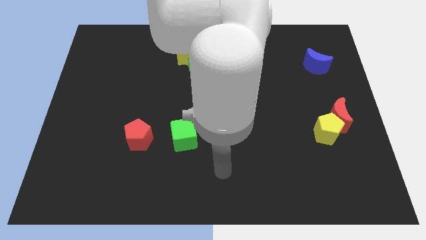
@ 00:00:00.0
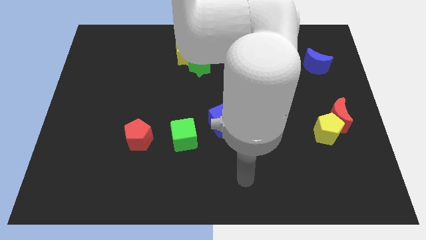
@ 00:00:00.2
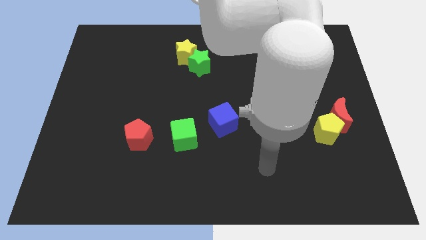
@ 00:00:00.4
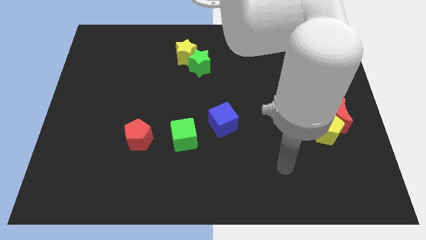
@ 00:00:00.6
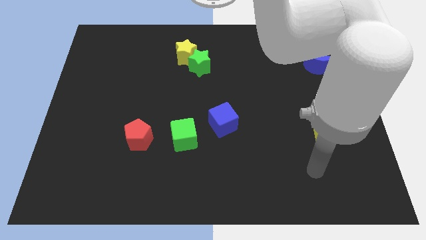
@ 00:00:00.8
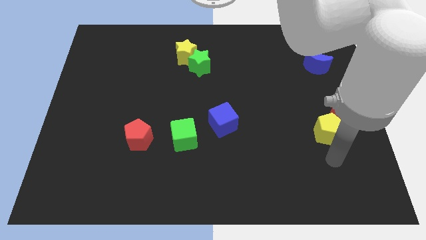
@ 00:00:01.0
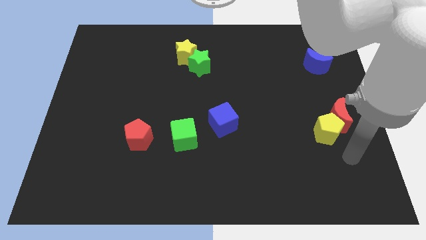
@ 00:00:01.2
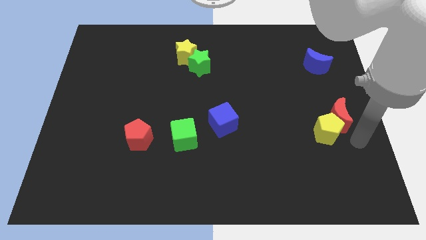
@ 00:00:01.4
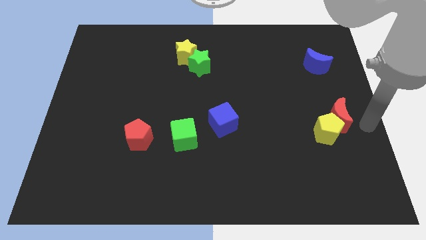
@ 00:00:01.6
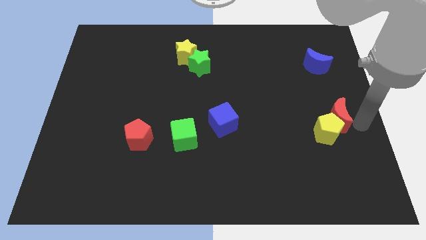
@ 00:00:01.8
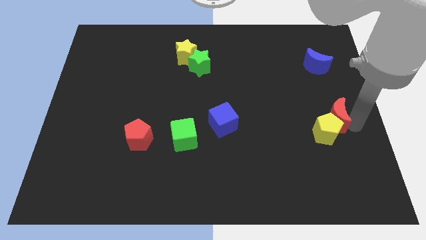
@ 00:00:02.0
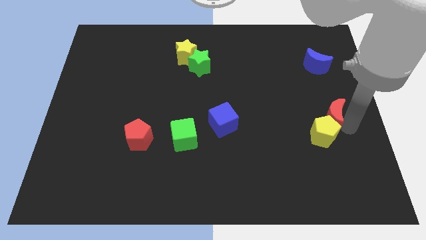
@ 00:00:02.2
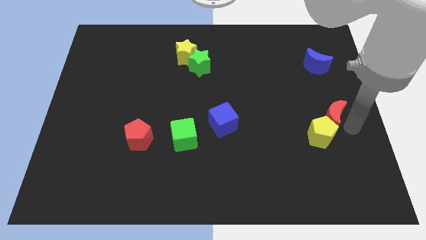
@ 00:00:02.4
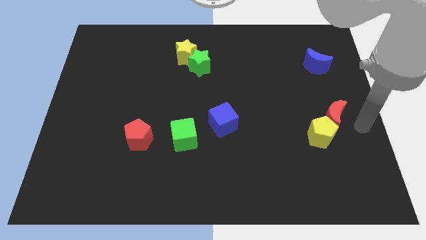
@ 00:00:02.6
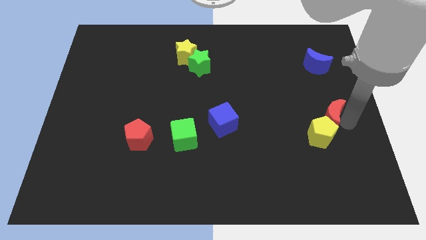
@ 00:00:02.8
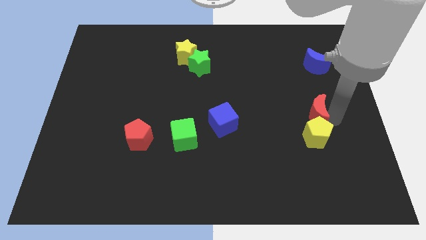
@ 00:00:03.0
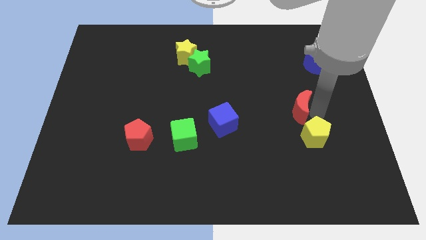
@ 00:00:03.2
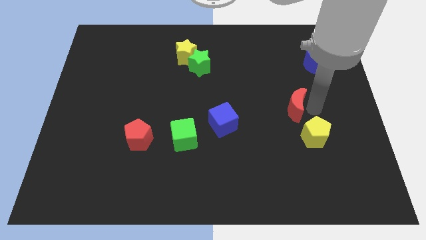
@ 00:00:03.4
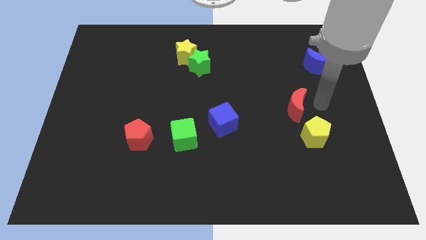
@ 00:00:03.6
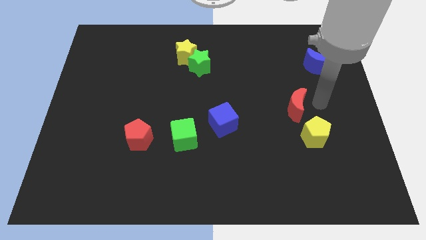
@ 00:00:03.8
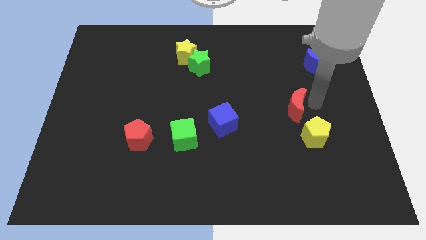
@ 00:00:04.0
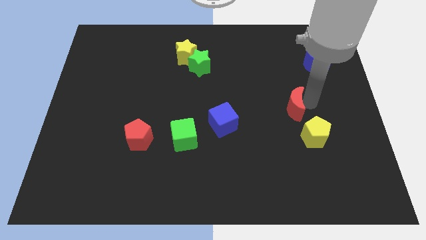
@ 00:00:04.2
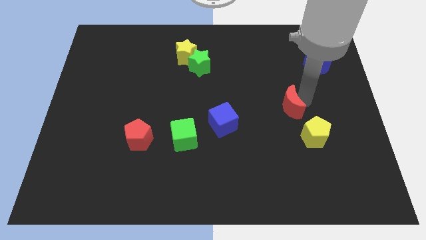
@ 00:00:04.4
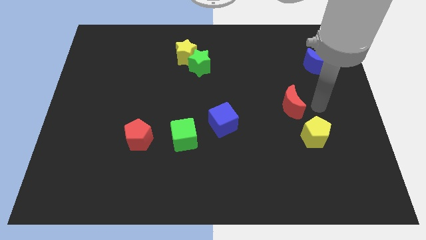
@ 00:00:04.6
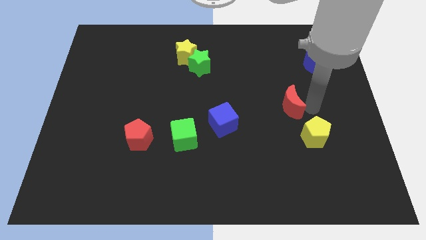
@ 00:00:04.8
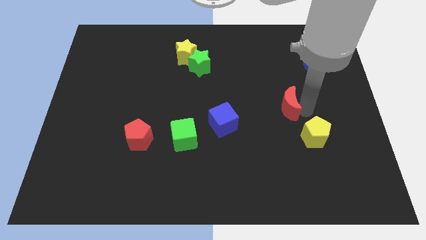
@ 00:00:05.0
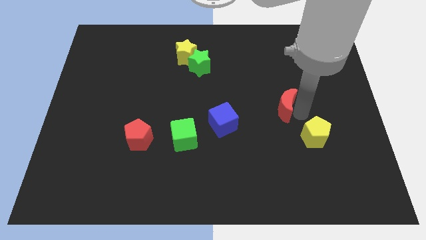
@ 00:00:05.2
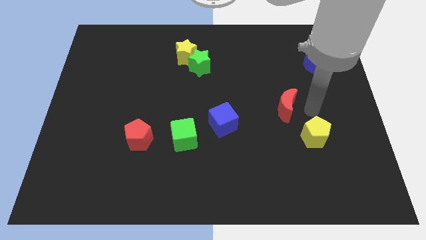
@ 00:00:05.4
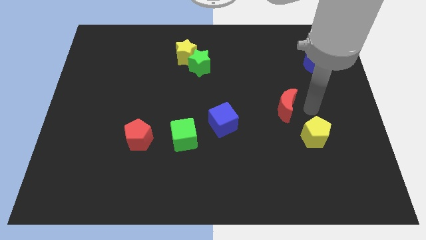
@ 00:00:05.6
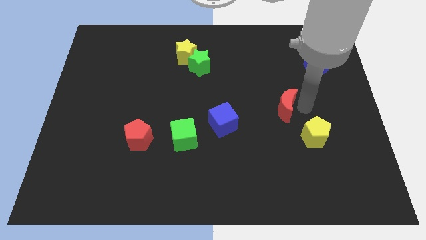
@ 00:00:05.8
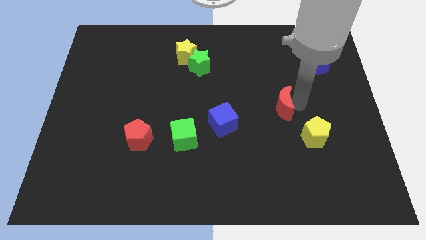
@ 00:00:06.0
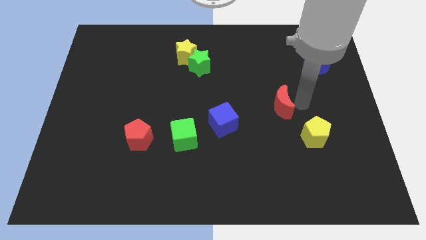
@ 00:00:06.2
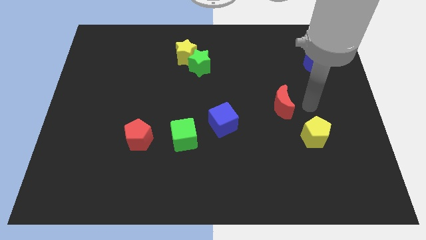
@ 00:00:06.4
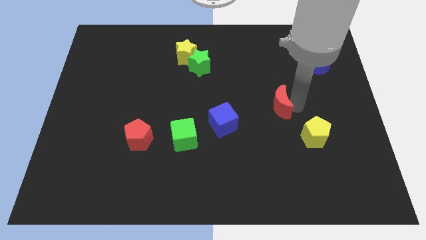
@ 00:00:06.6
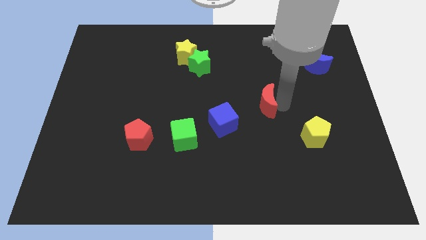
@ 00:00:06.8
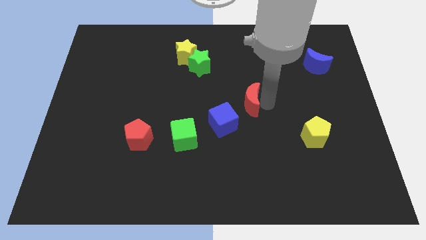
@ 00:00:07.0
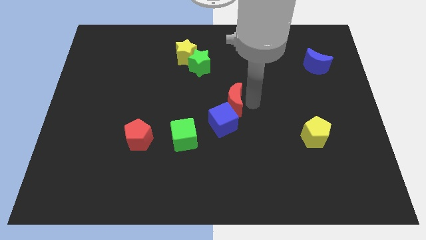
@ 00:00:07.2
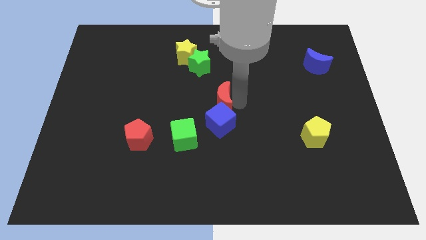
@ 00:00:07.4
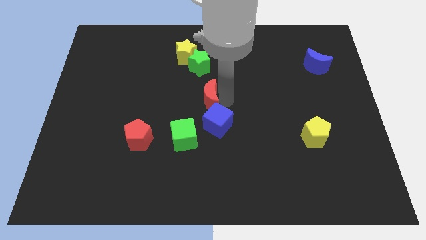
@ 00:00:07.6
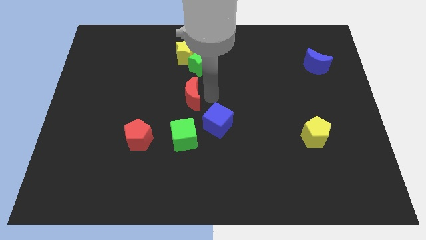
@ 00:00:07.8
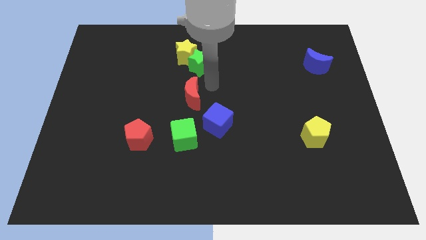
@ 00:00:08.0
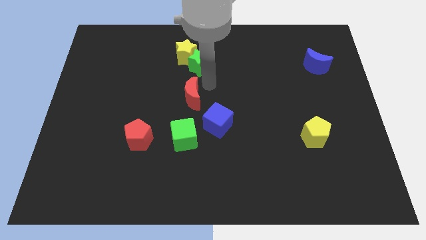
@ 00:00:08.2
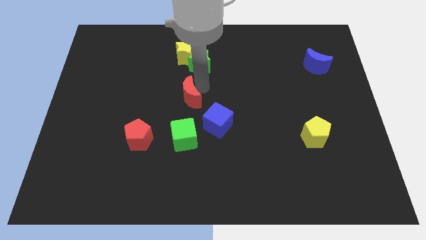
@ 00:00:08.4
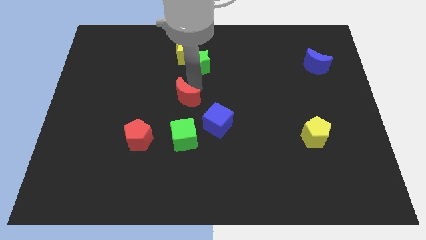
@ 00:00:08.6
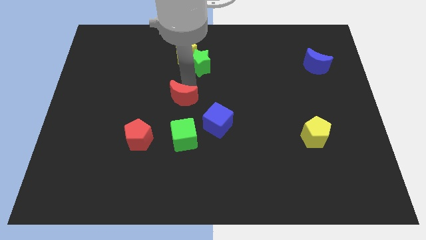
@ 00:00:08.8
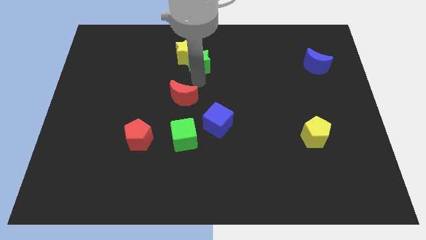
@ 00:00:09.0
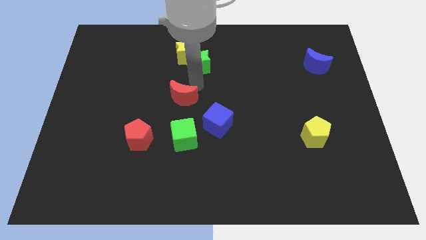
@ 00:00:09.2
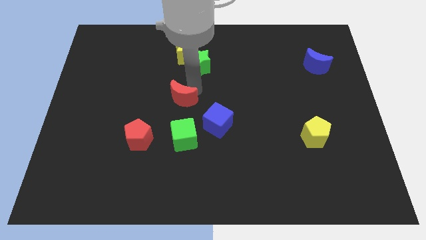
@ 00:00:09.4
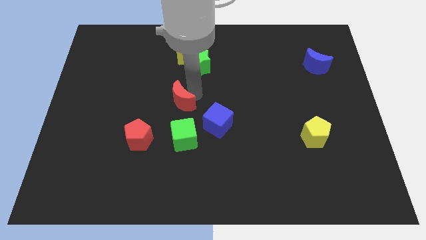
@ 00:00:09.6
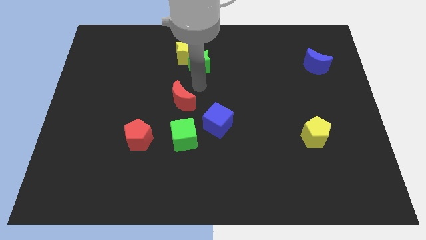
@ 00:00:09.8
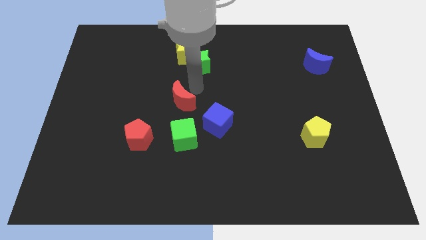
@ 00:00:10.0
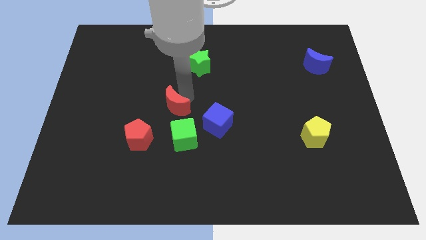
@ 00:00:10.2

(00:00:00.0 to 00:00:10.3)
push the red moon diagonally up and to the left of the green cube

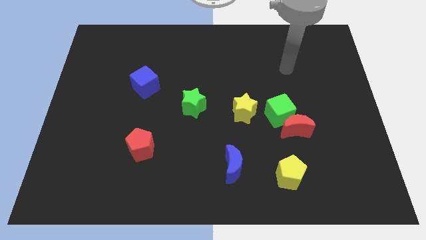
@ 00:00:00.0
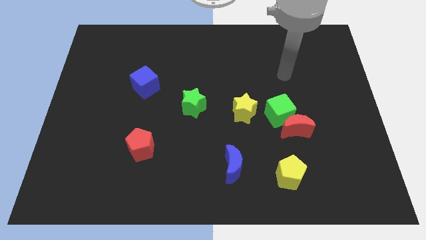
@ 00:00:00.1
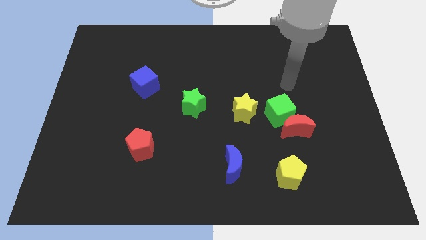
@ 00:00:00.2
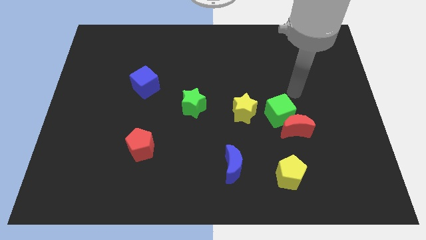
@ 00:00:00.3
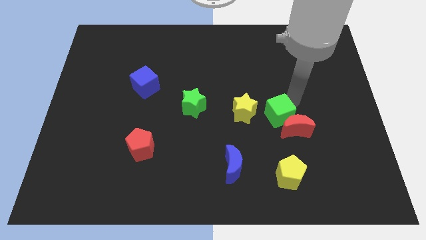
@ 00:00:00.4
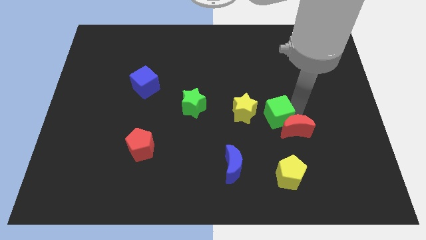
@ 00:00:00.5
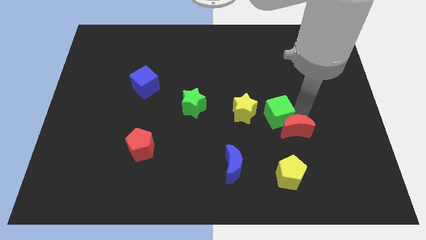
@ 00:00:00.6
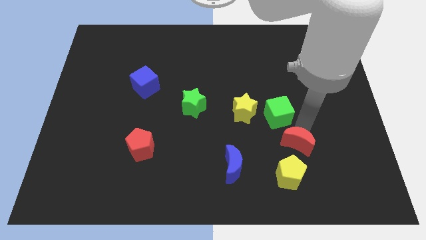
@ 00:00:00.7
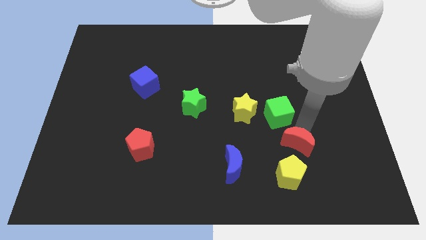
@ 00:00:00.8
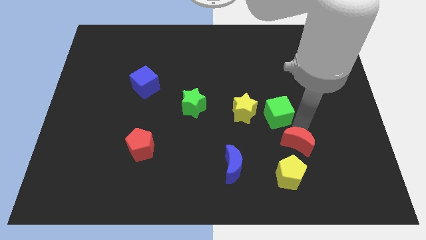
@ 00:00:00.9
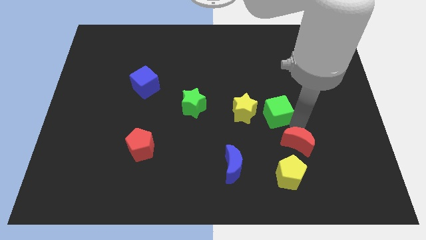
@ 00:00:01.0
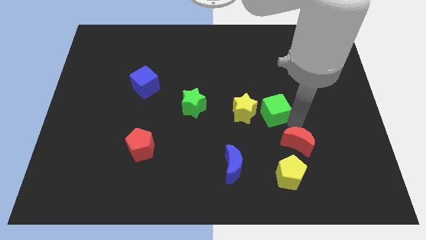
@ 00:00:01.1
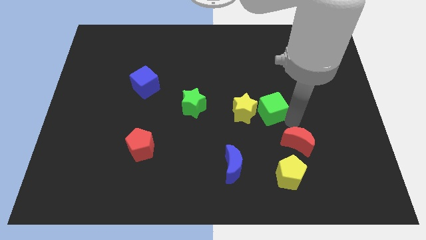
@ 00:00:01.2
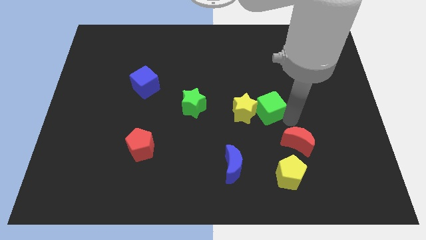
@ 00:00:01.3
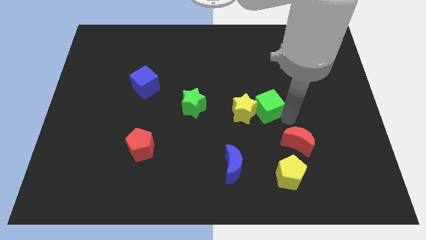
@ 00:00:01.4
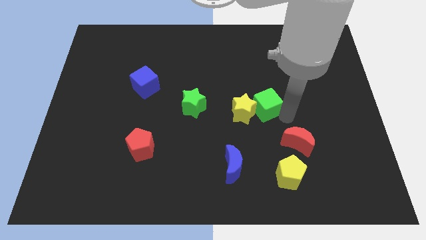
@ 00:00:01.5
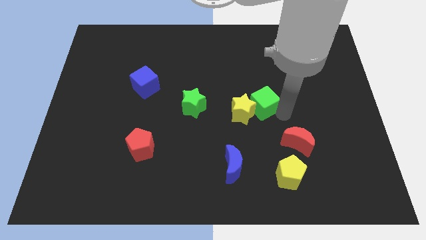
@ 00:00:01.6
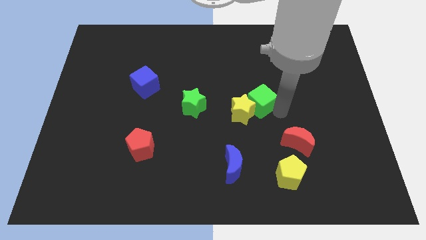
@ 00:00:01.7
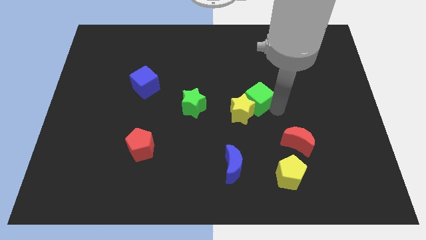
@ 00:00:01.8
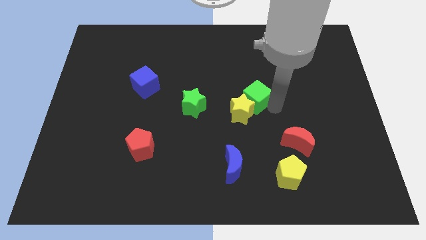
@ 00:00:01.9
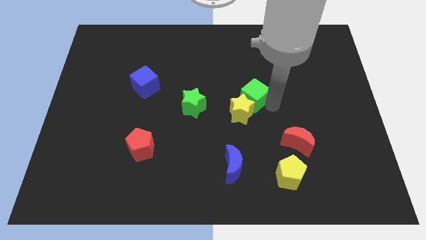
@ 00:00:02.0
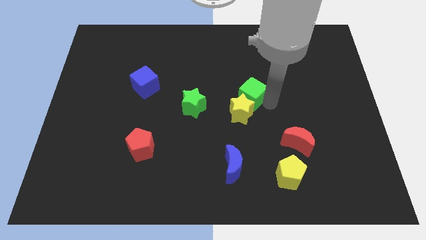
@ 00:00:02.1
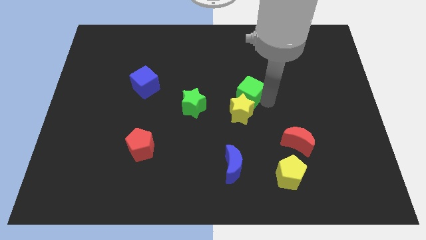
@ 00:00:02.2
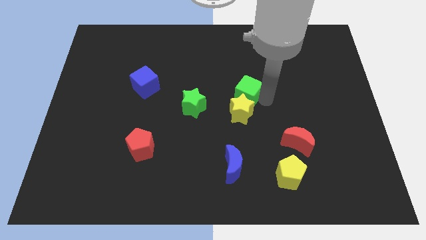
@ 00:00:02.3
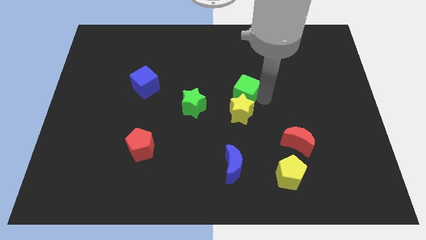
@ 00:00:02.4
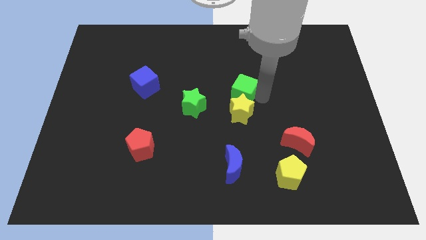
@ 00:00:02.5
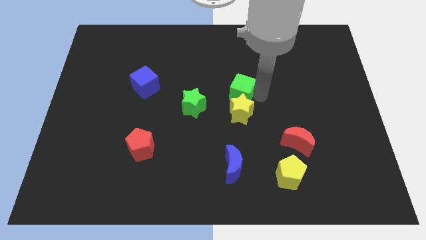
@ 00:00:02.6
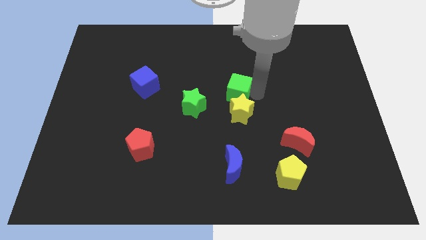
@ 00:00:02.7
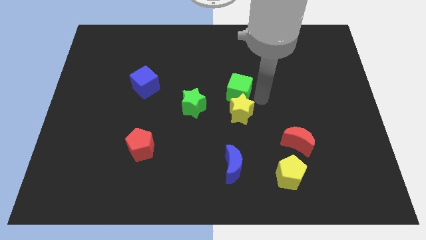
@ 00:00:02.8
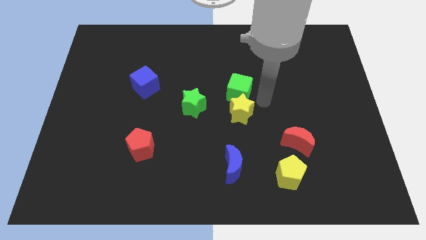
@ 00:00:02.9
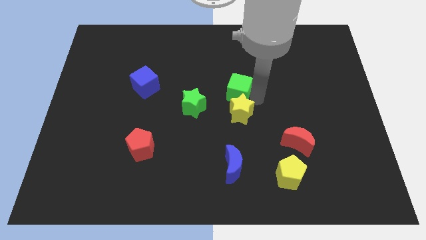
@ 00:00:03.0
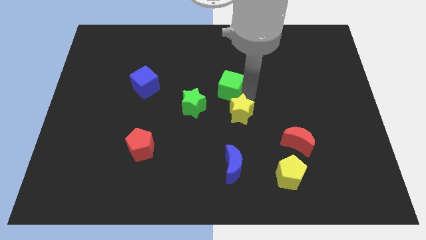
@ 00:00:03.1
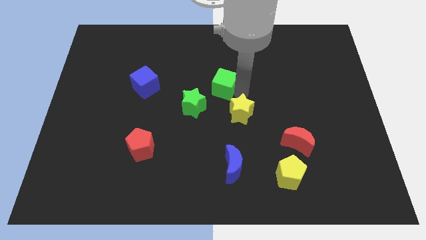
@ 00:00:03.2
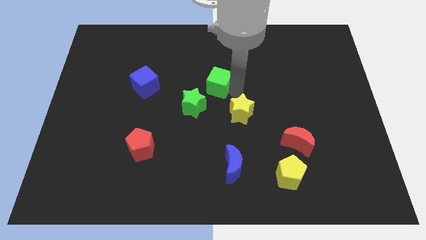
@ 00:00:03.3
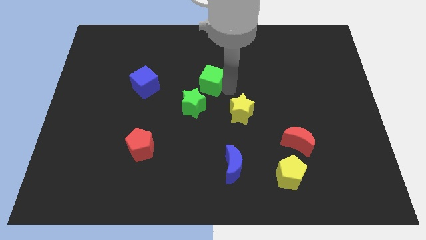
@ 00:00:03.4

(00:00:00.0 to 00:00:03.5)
put the green cube above the green star
